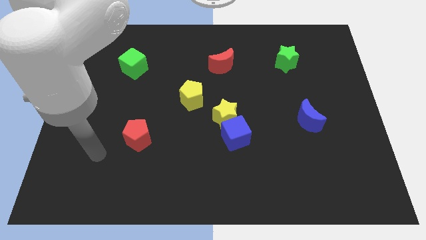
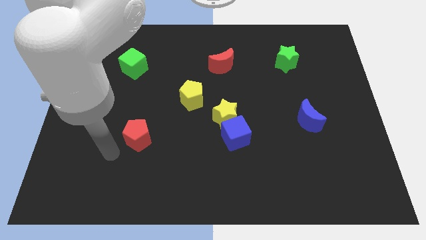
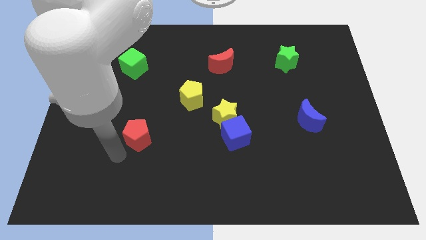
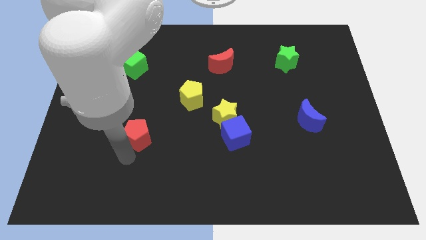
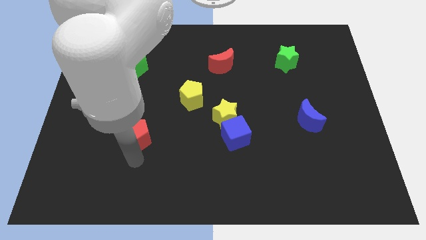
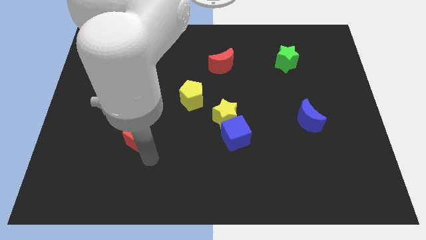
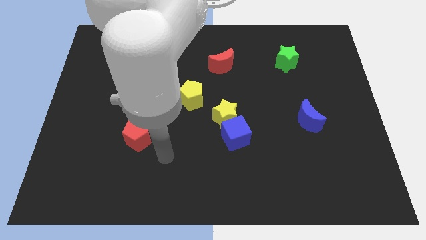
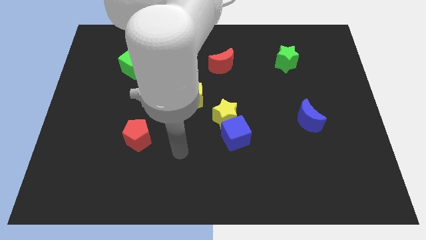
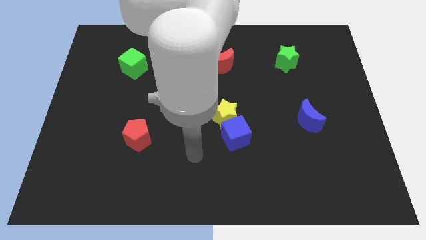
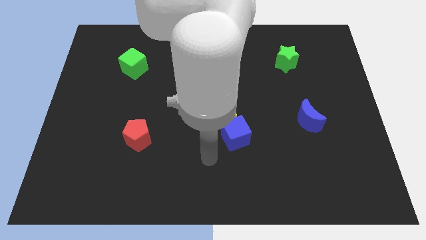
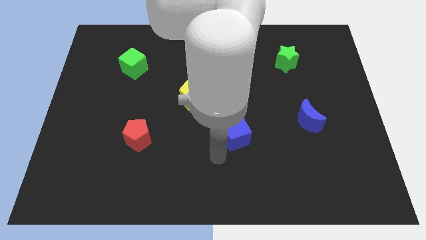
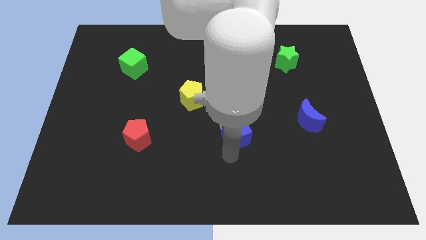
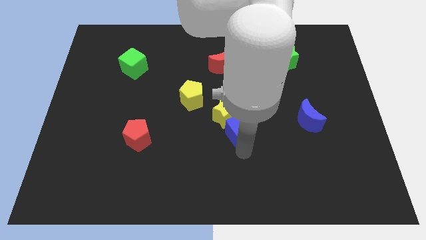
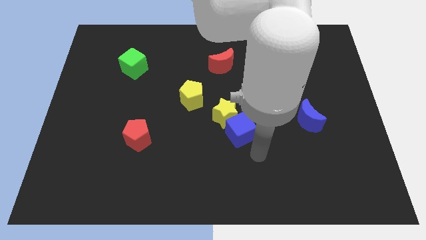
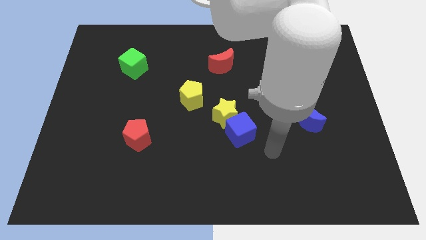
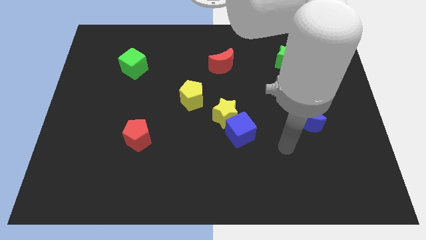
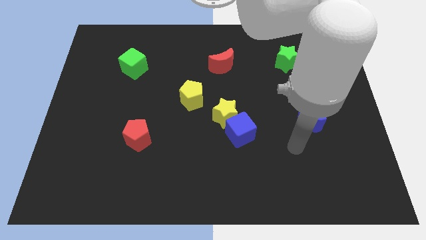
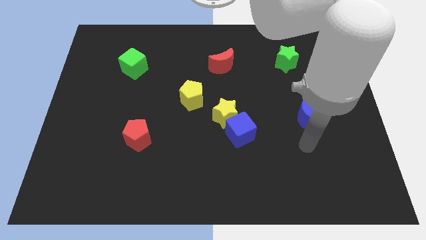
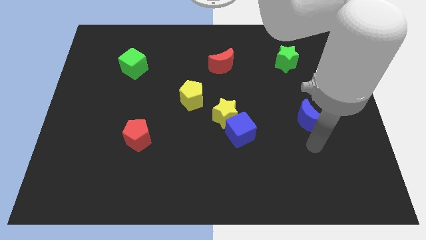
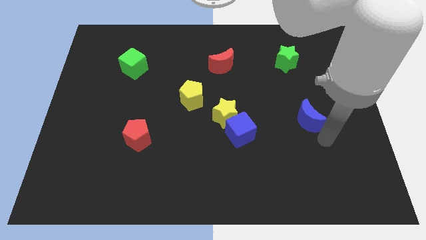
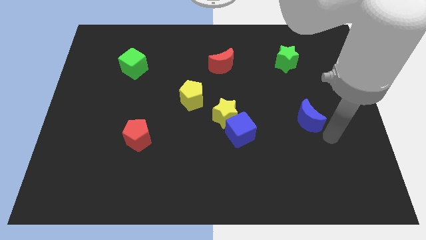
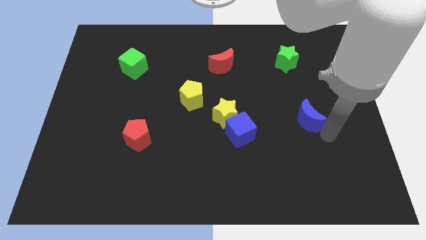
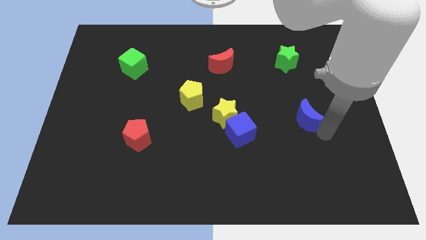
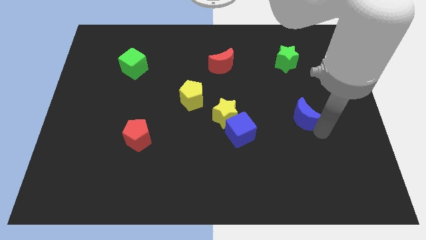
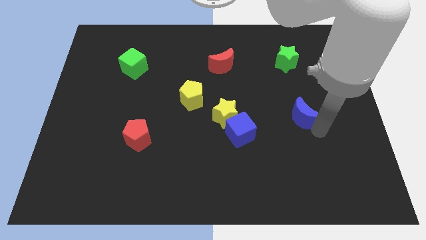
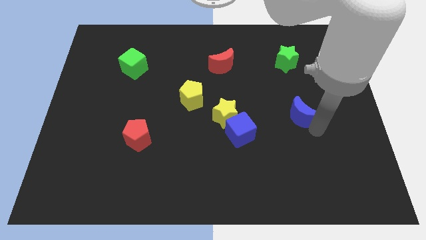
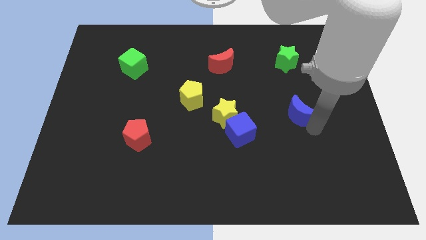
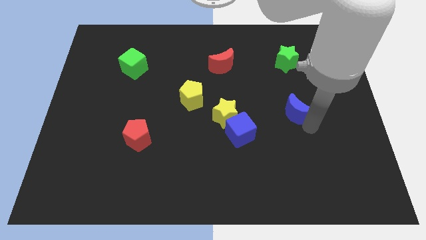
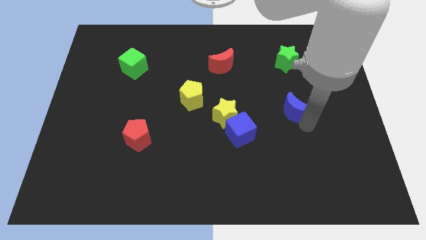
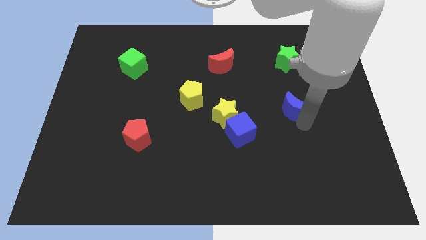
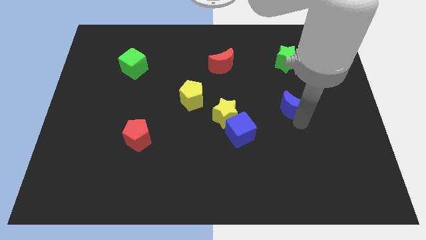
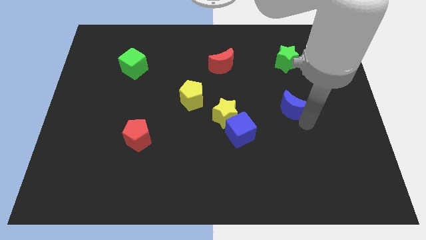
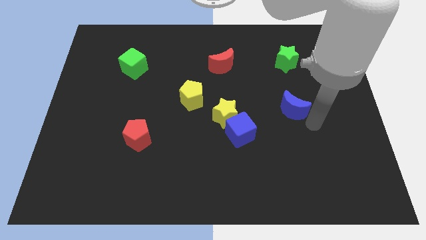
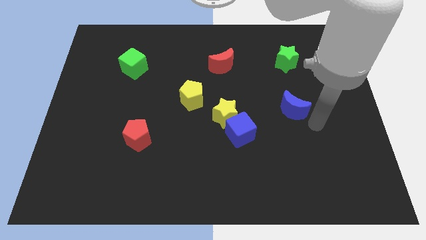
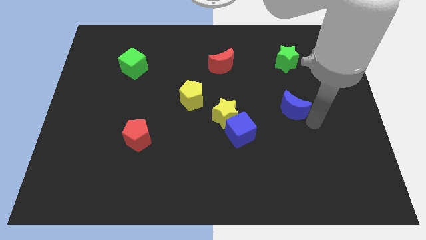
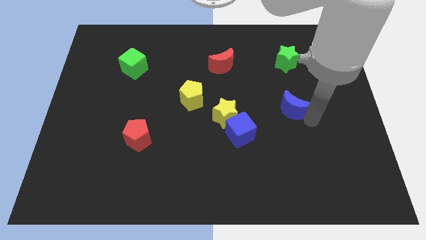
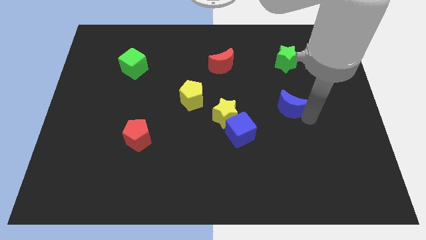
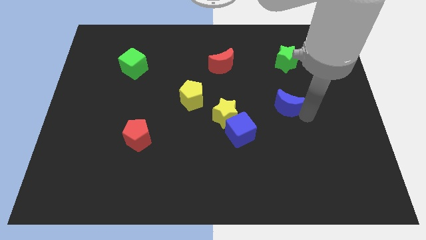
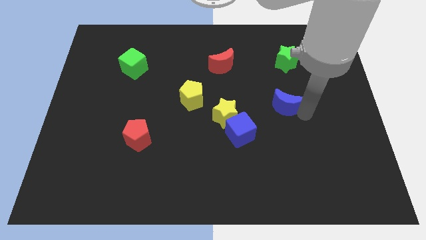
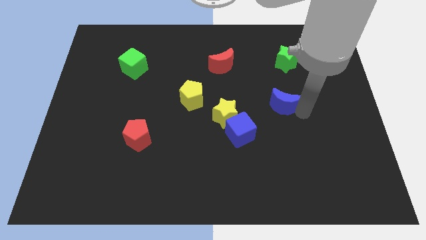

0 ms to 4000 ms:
slightly slide the blue moon up and then left

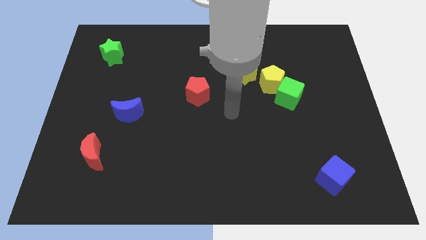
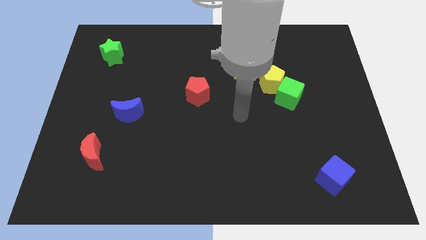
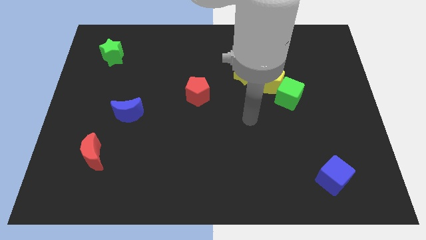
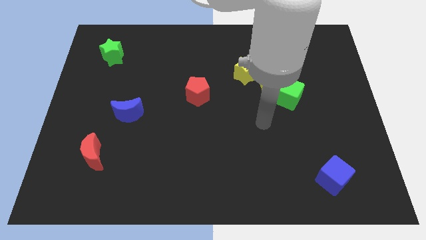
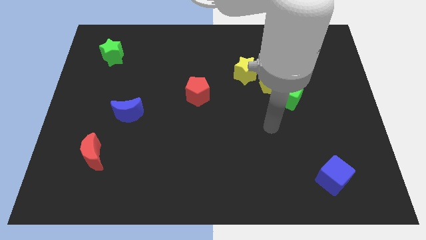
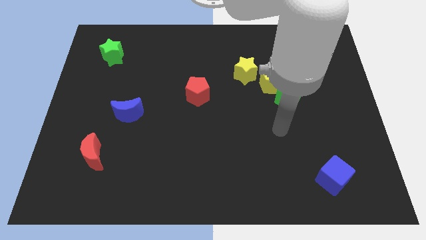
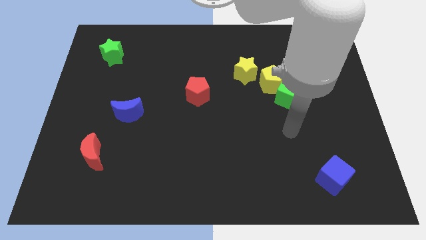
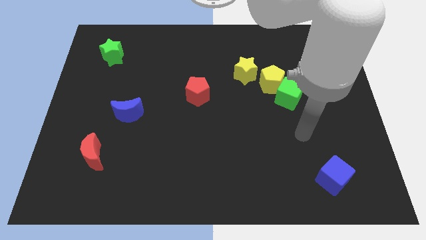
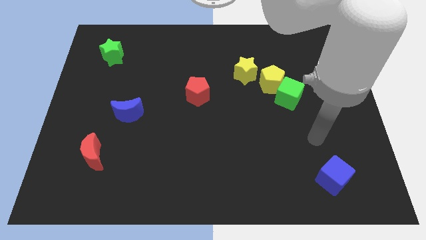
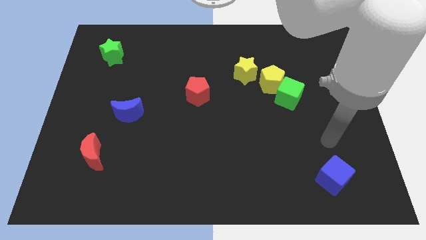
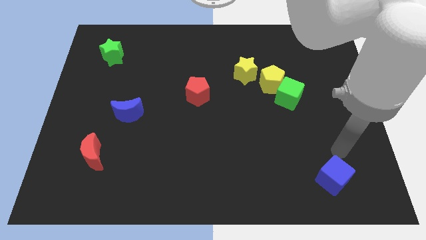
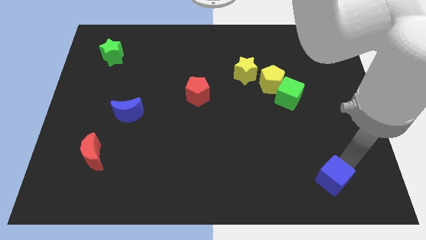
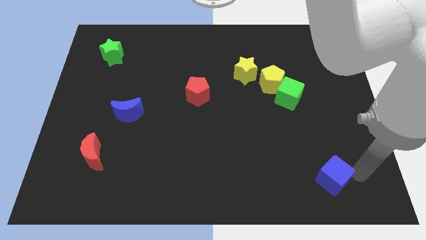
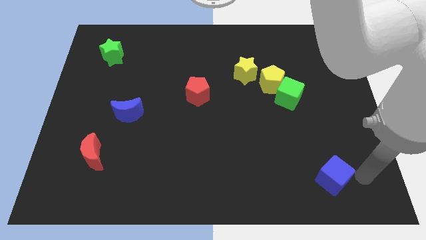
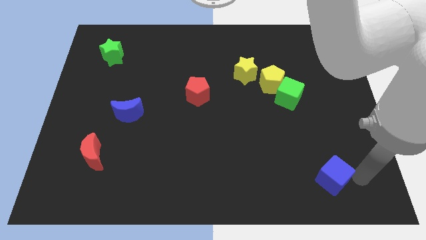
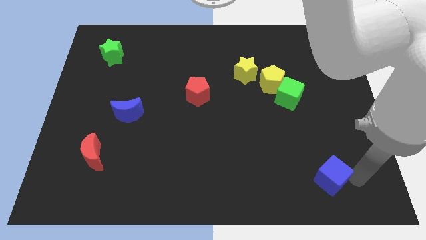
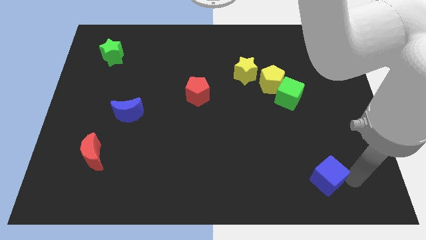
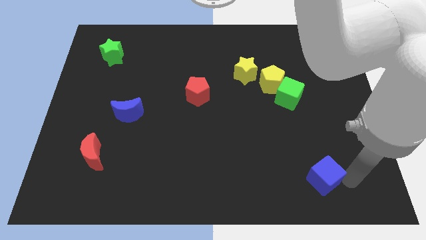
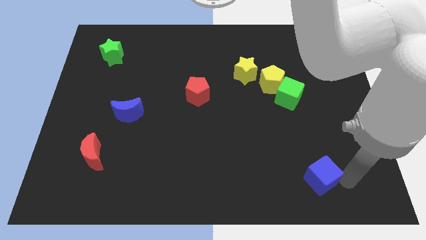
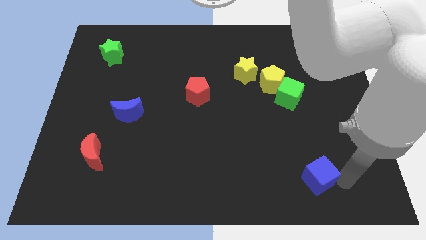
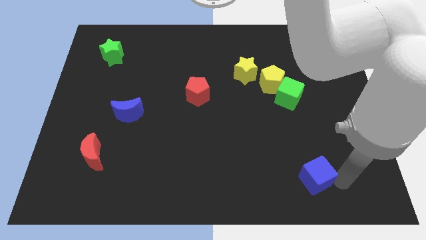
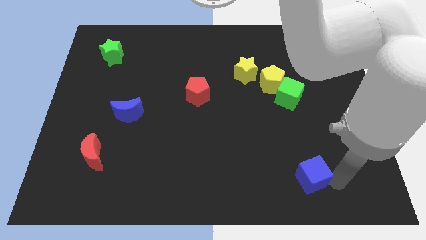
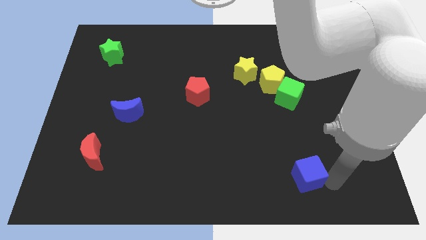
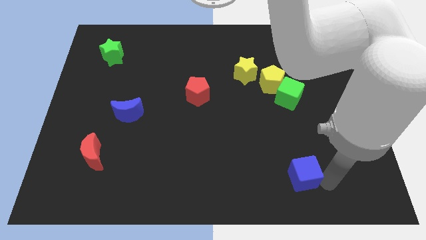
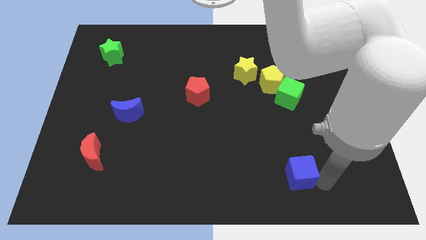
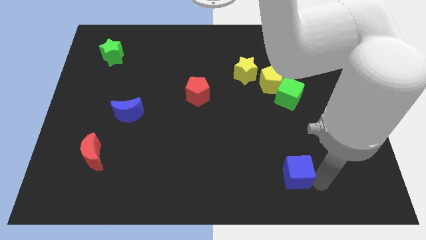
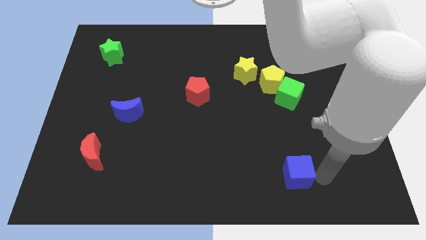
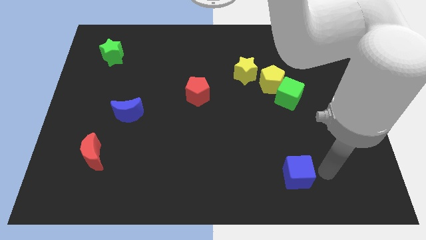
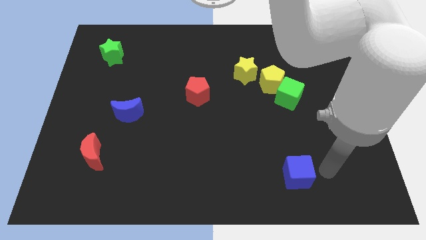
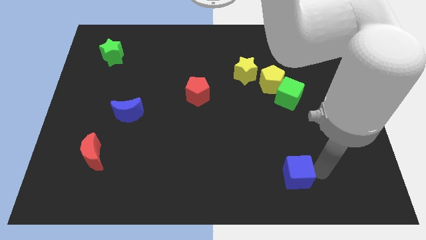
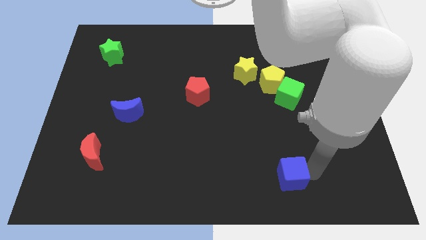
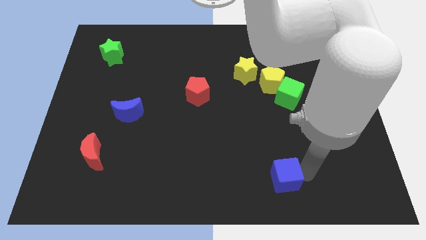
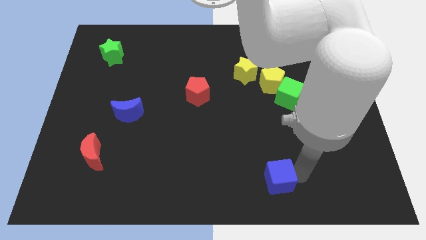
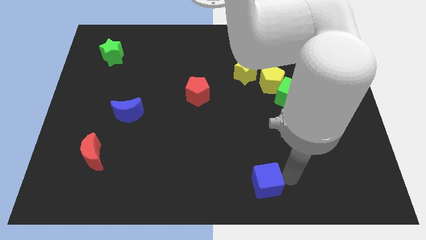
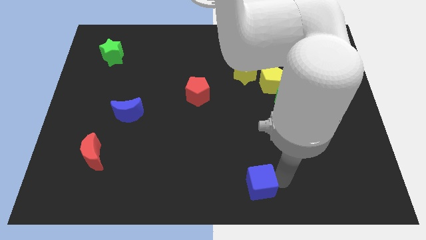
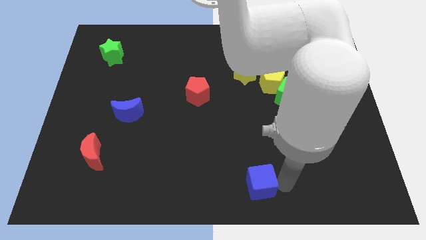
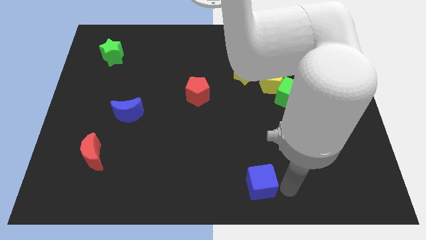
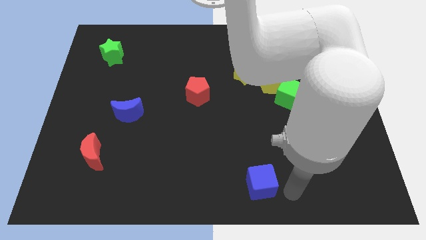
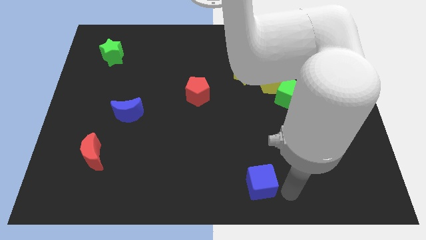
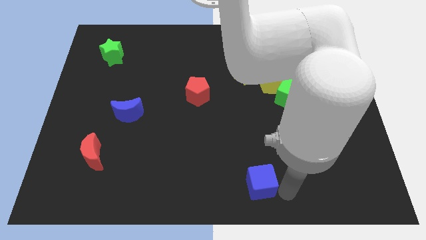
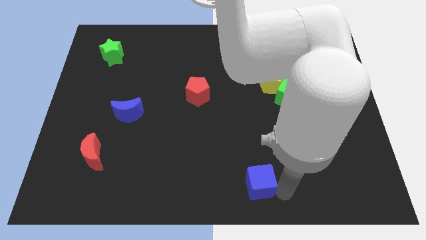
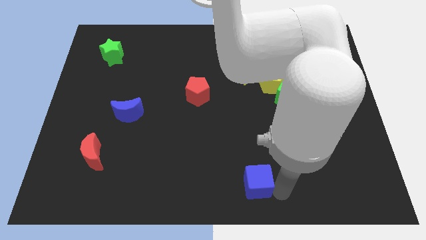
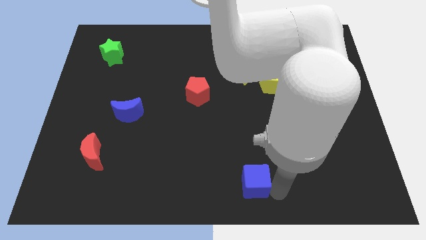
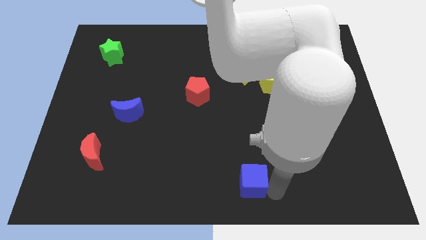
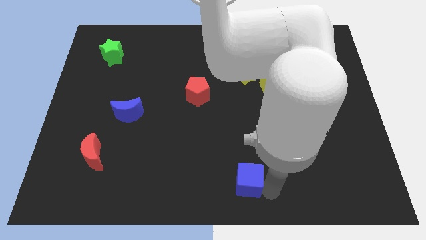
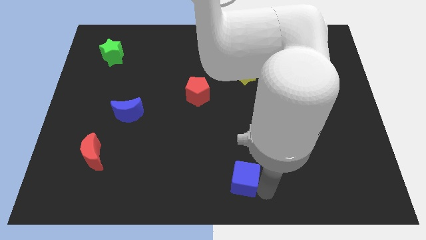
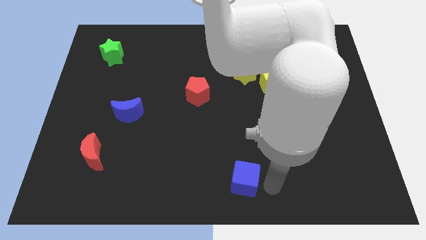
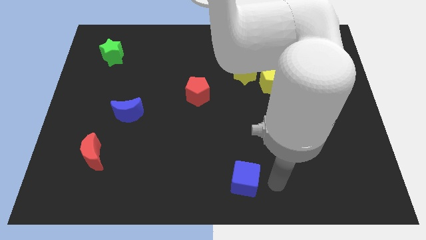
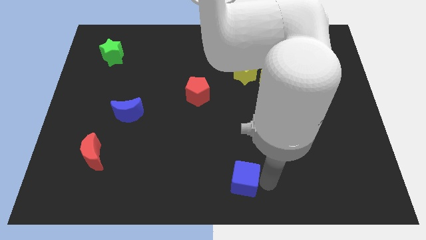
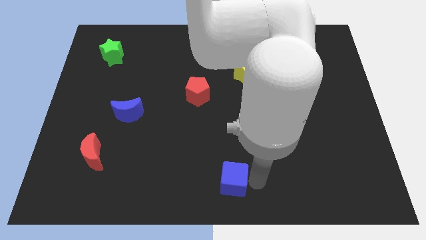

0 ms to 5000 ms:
move the blue cube left
